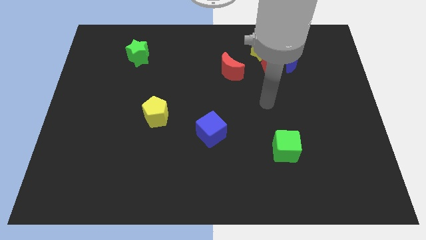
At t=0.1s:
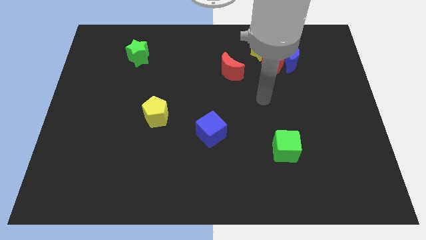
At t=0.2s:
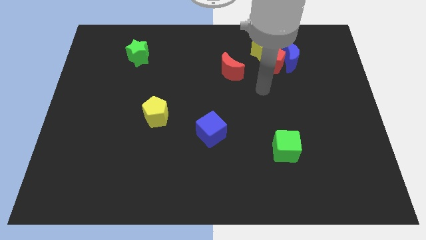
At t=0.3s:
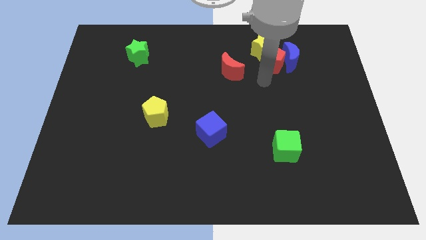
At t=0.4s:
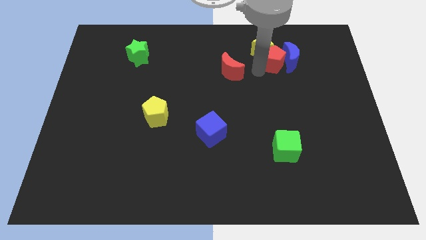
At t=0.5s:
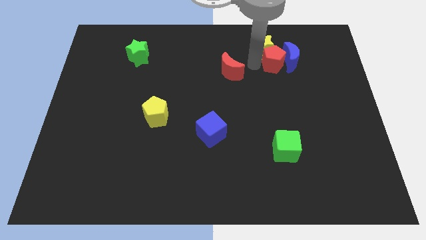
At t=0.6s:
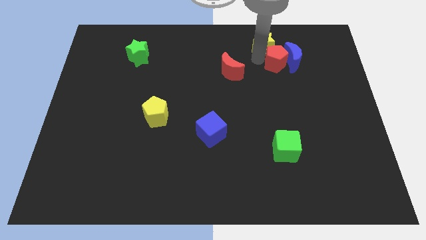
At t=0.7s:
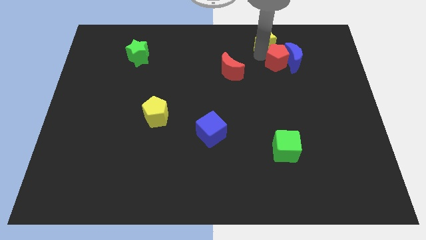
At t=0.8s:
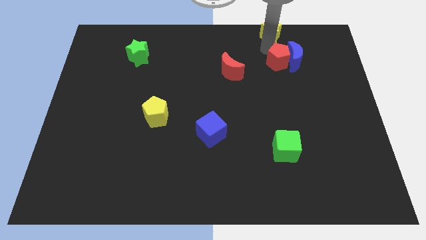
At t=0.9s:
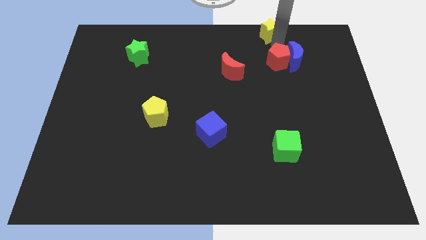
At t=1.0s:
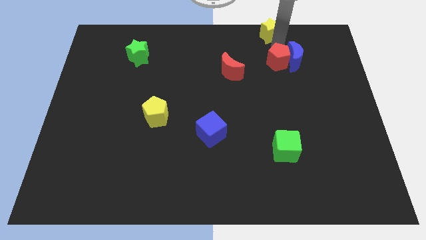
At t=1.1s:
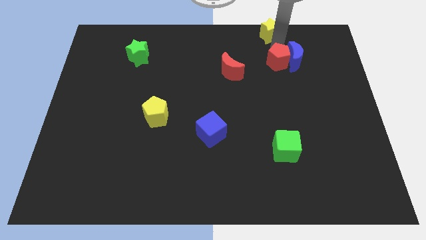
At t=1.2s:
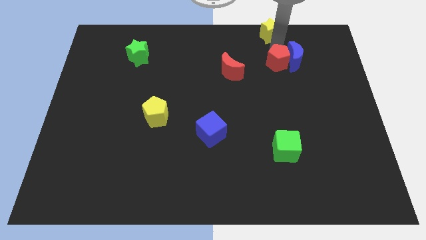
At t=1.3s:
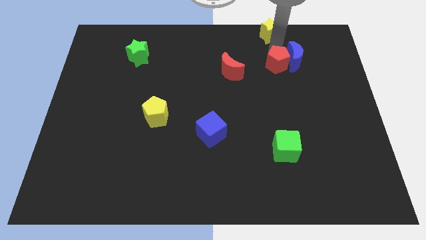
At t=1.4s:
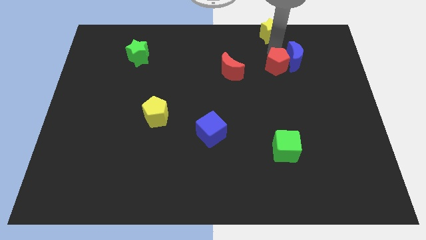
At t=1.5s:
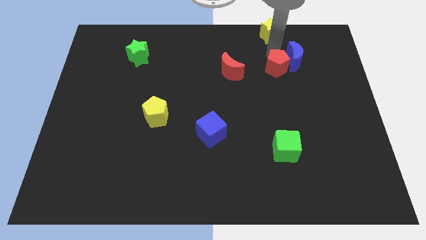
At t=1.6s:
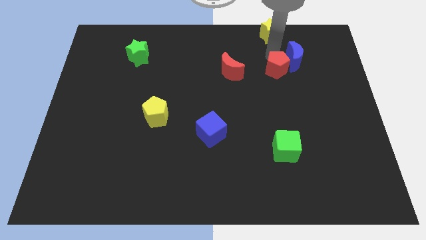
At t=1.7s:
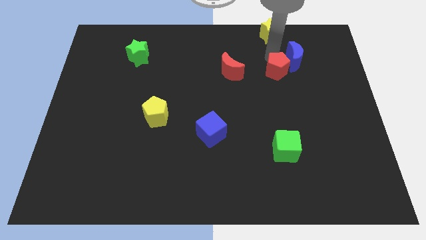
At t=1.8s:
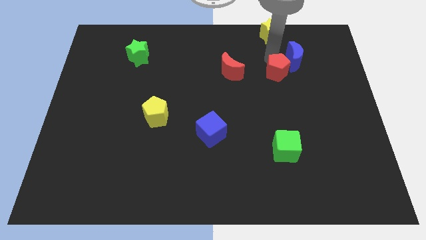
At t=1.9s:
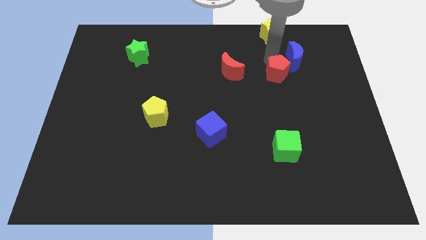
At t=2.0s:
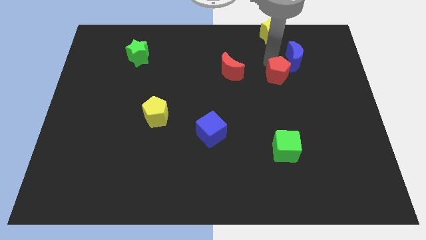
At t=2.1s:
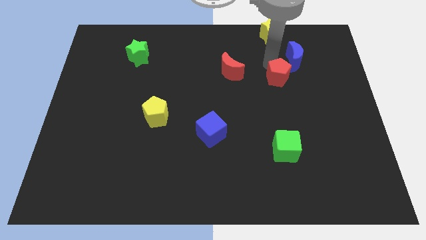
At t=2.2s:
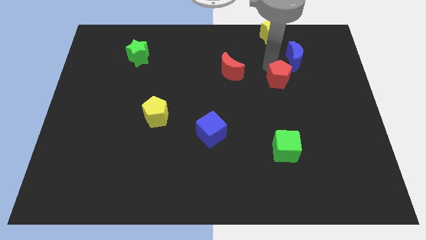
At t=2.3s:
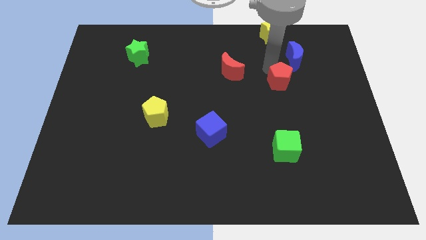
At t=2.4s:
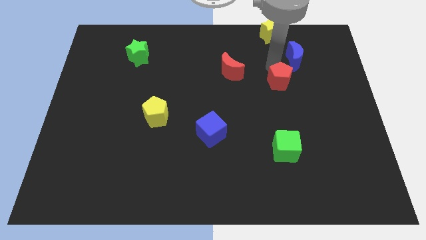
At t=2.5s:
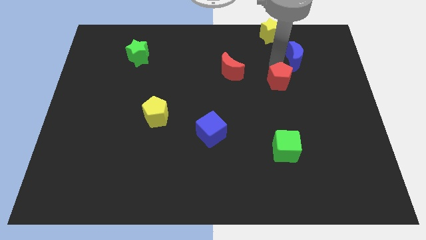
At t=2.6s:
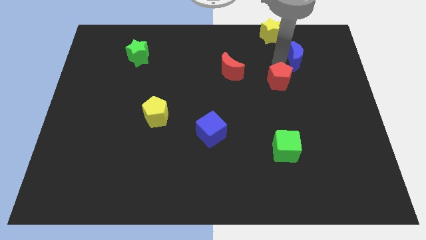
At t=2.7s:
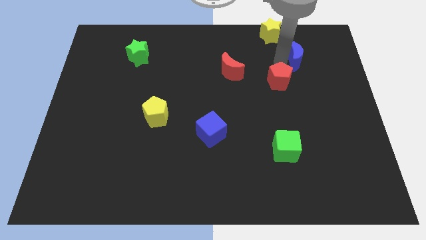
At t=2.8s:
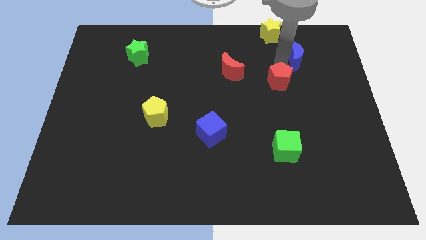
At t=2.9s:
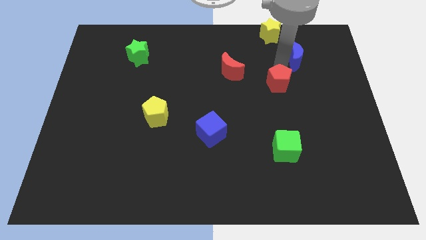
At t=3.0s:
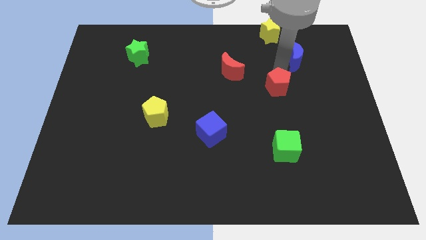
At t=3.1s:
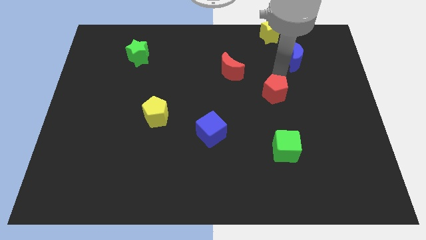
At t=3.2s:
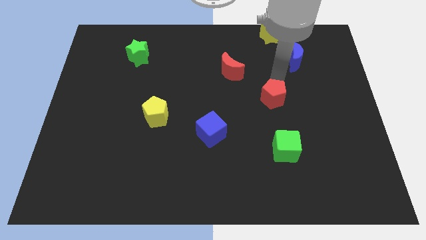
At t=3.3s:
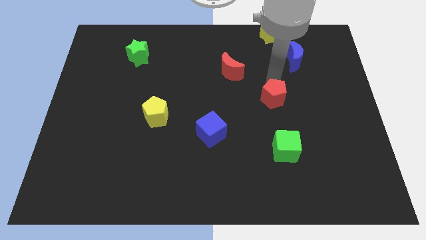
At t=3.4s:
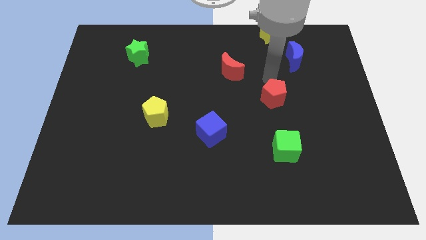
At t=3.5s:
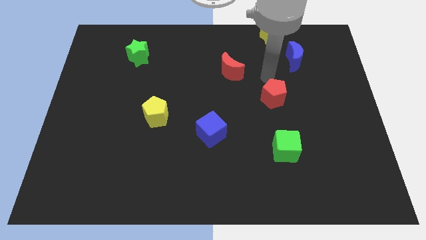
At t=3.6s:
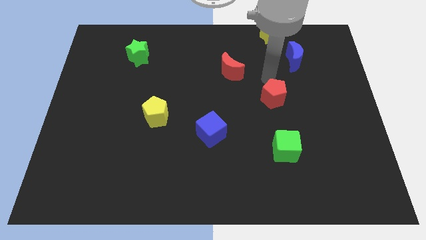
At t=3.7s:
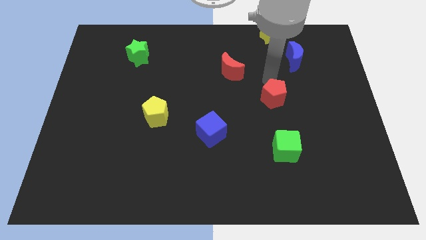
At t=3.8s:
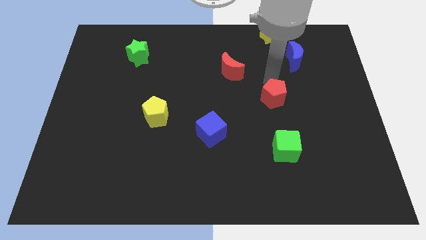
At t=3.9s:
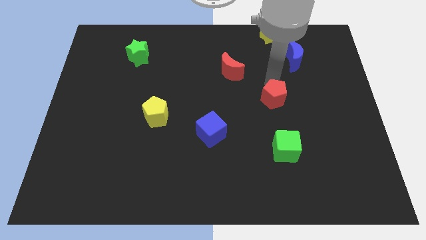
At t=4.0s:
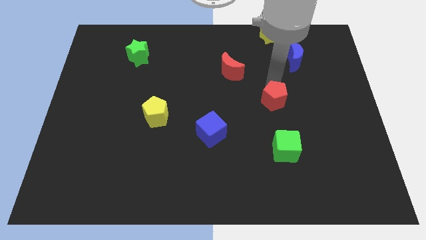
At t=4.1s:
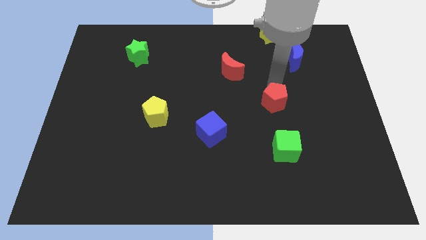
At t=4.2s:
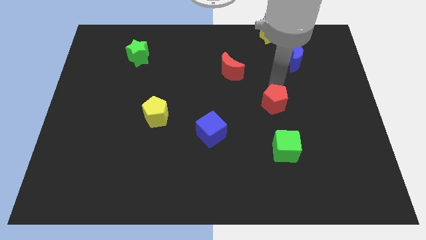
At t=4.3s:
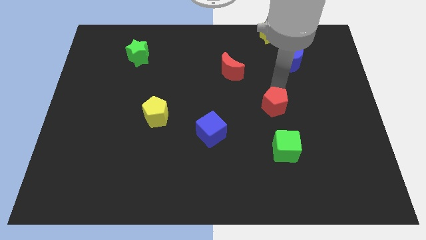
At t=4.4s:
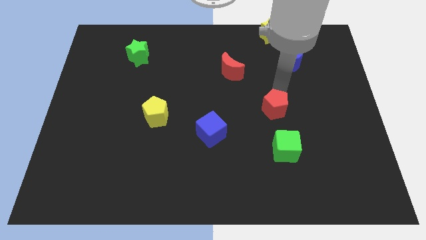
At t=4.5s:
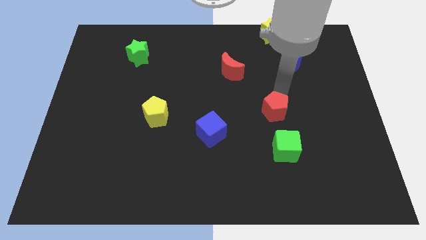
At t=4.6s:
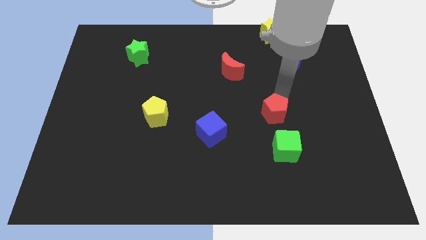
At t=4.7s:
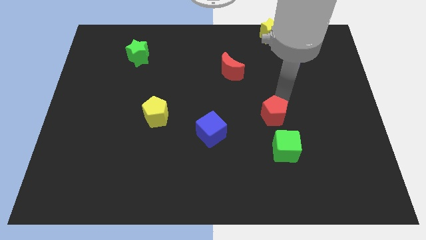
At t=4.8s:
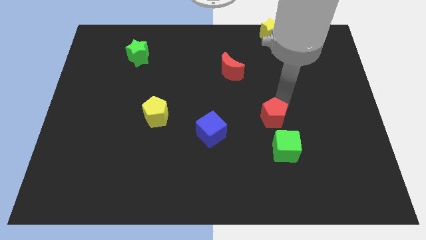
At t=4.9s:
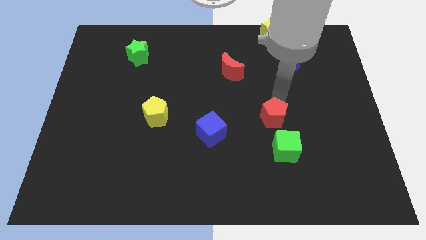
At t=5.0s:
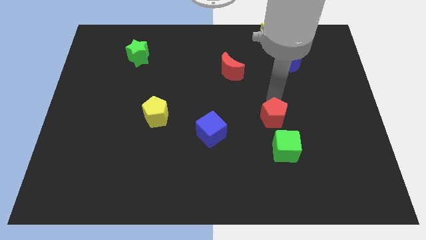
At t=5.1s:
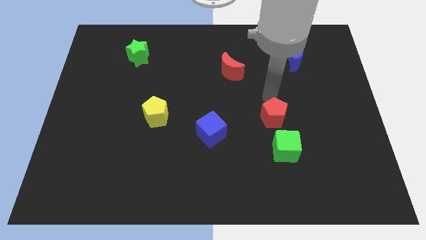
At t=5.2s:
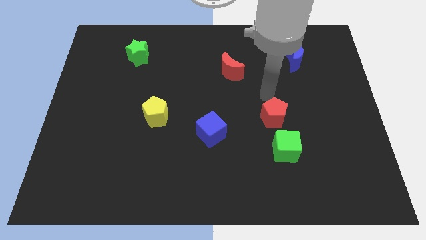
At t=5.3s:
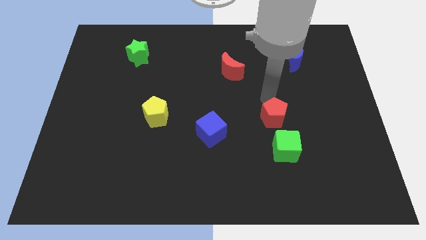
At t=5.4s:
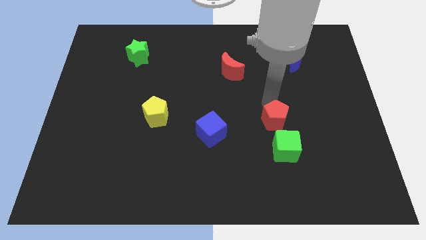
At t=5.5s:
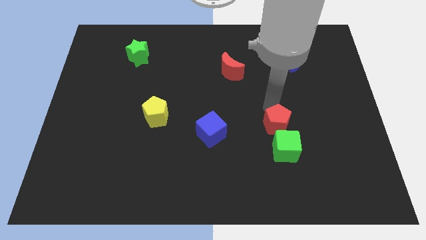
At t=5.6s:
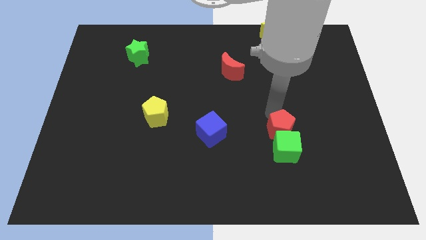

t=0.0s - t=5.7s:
slide the red pentagon towards the green cube

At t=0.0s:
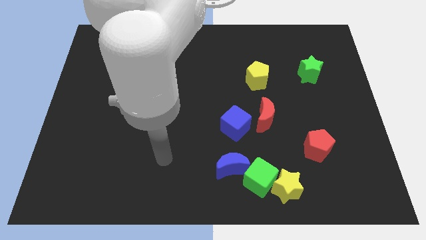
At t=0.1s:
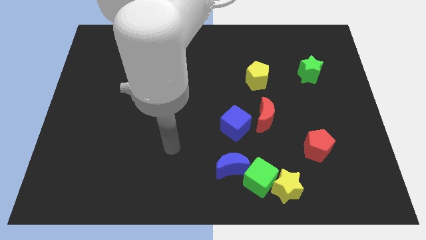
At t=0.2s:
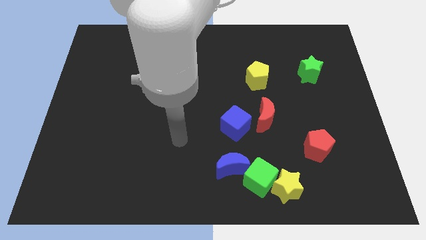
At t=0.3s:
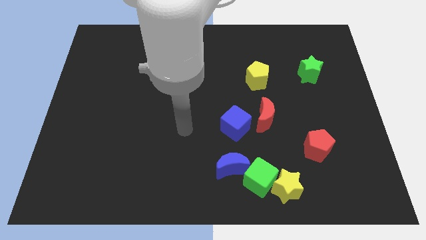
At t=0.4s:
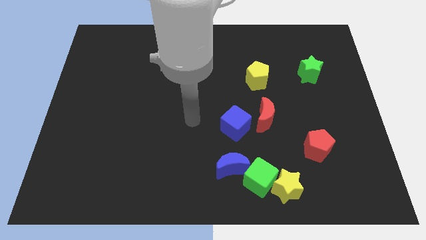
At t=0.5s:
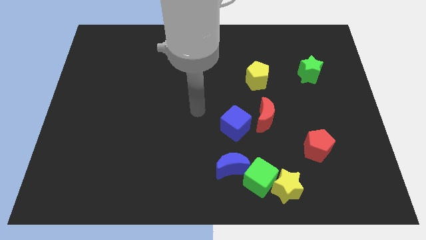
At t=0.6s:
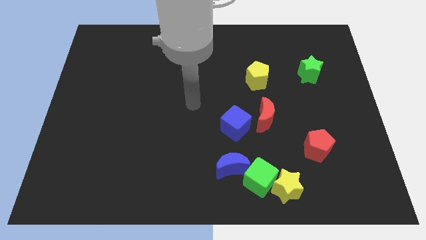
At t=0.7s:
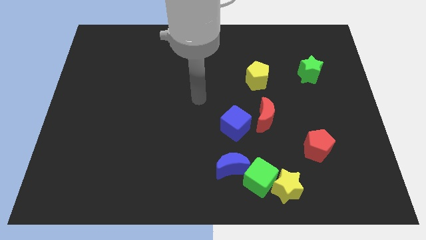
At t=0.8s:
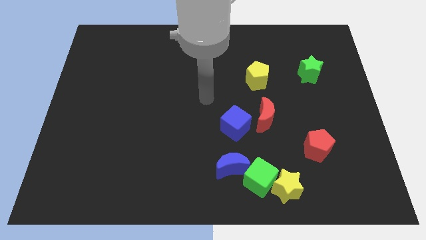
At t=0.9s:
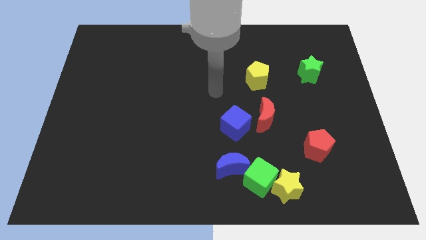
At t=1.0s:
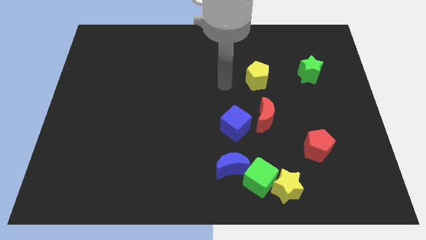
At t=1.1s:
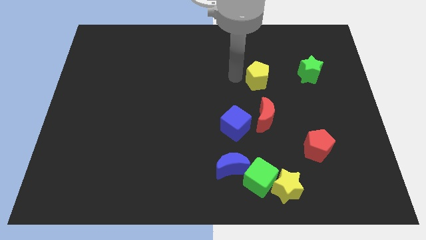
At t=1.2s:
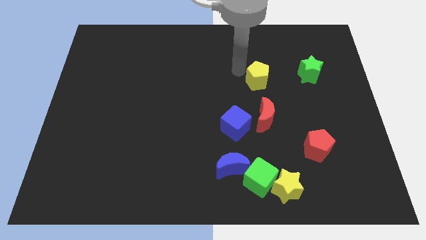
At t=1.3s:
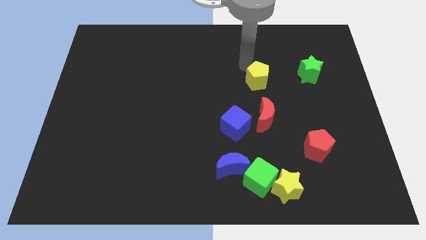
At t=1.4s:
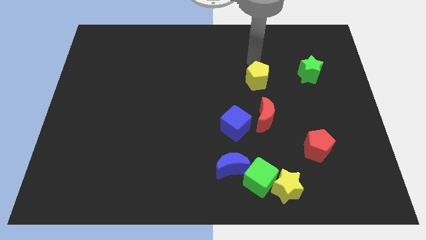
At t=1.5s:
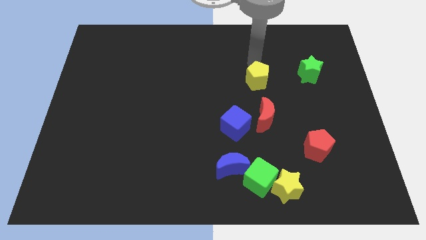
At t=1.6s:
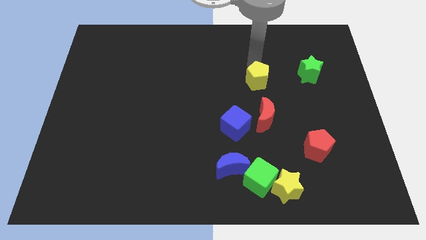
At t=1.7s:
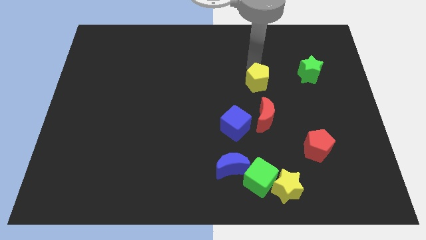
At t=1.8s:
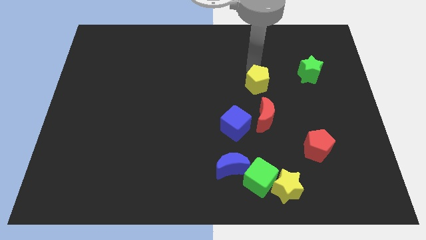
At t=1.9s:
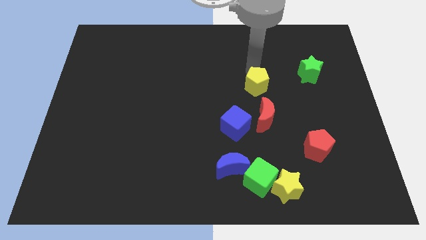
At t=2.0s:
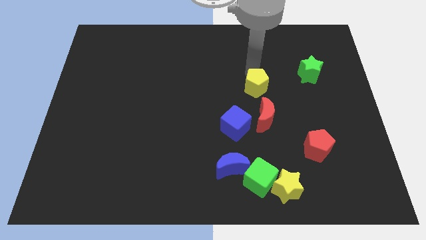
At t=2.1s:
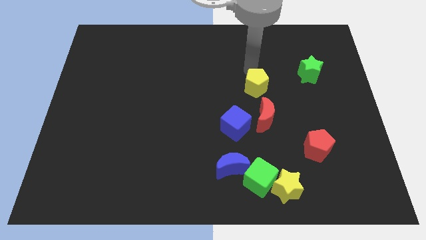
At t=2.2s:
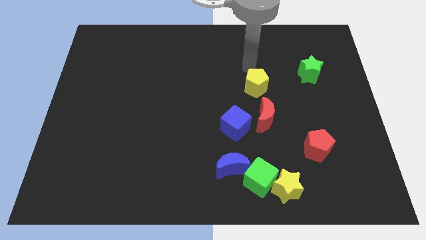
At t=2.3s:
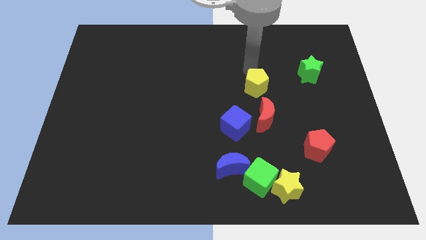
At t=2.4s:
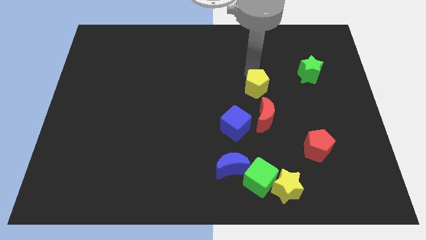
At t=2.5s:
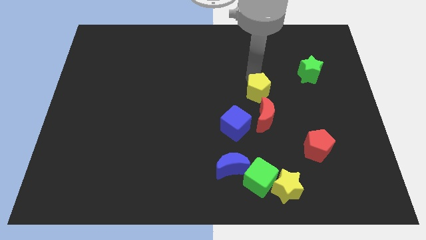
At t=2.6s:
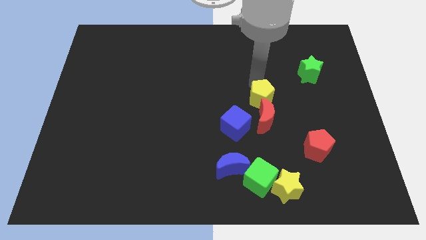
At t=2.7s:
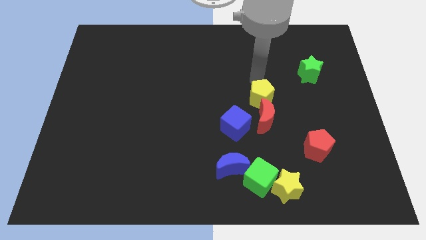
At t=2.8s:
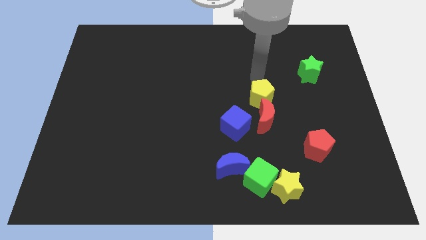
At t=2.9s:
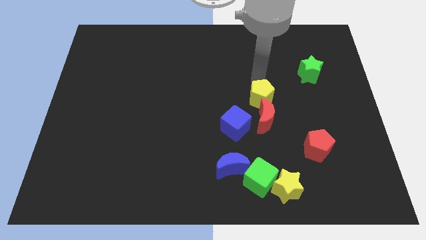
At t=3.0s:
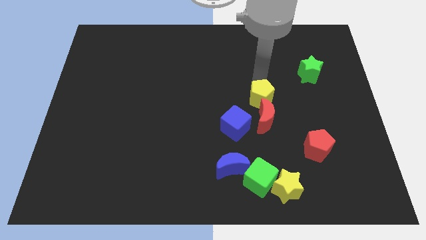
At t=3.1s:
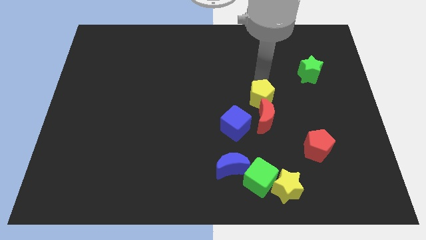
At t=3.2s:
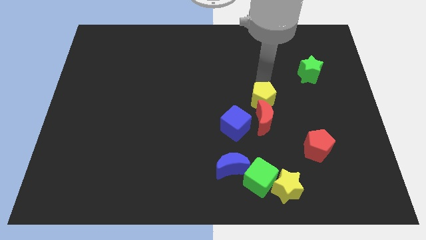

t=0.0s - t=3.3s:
put the yellow pentagon next to the red moon
